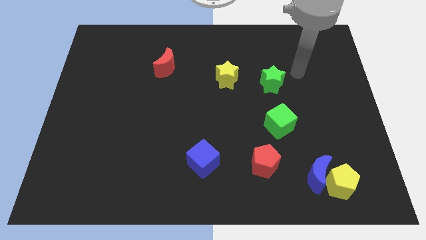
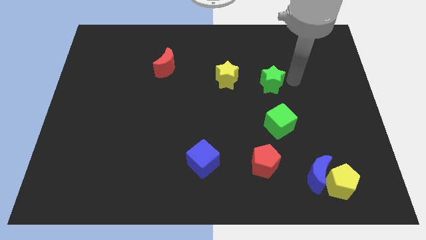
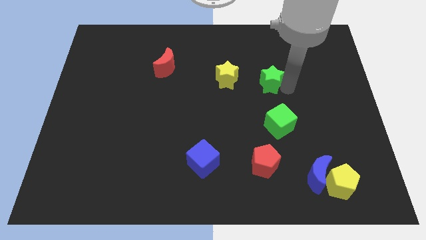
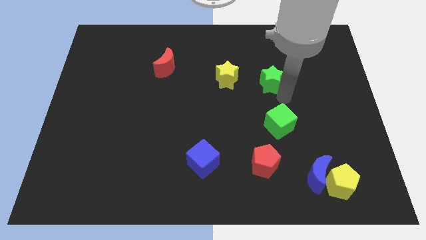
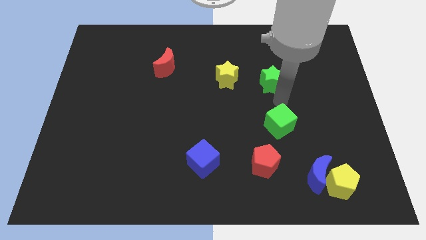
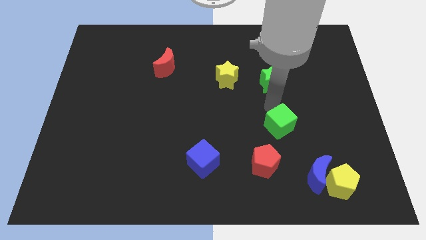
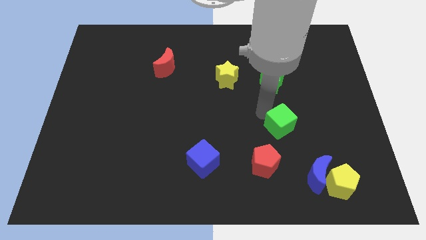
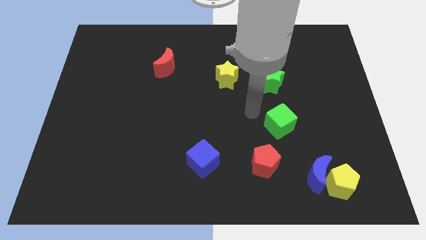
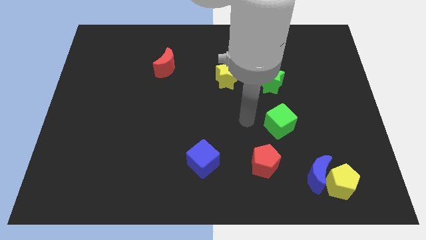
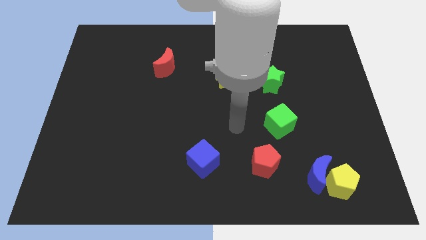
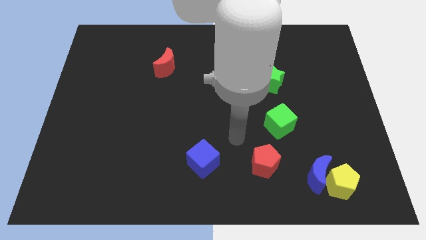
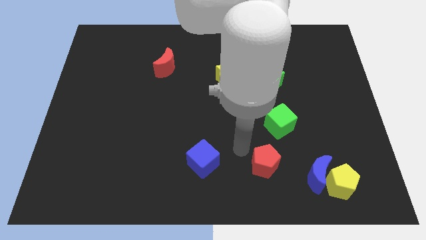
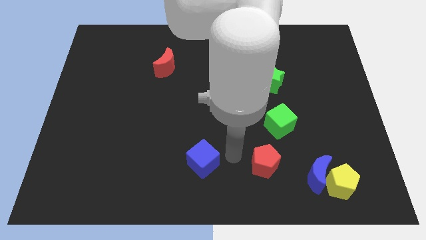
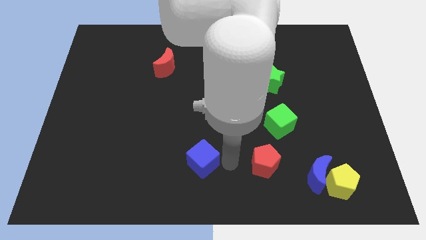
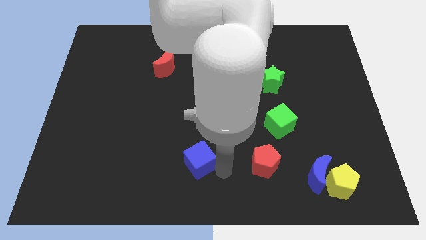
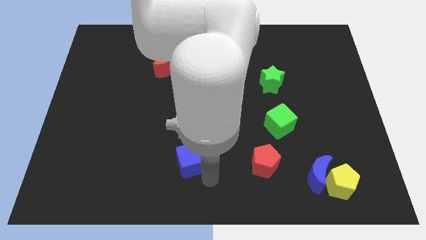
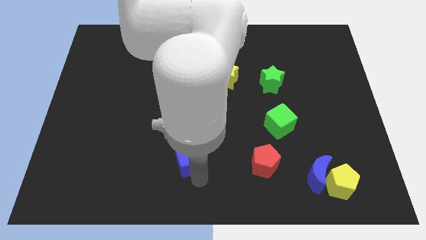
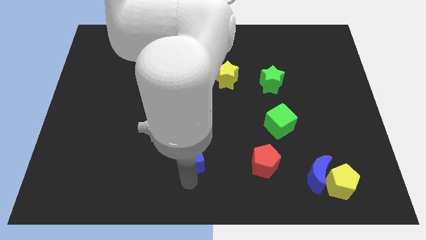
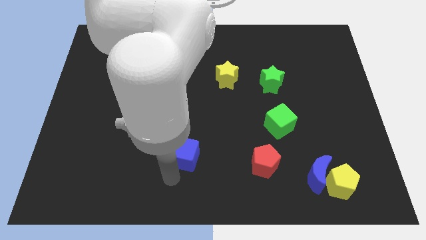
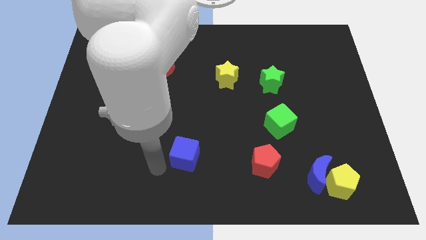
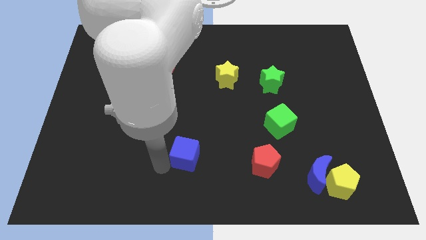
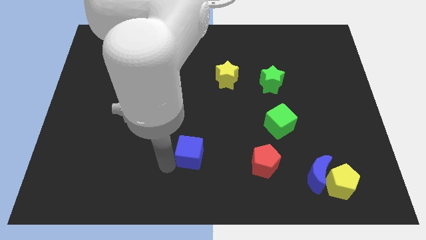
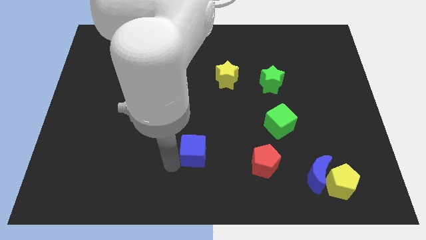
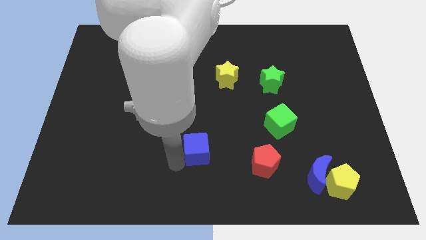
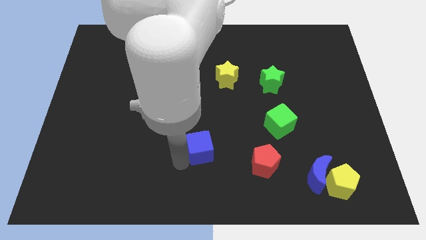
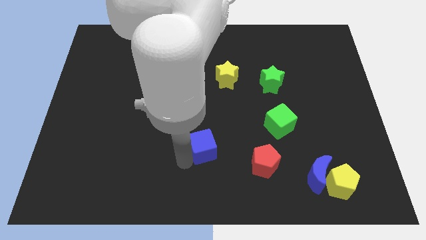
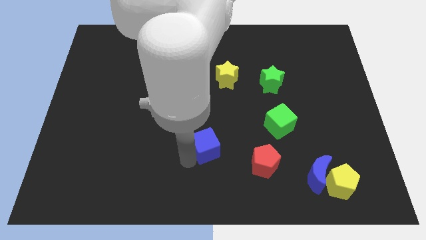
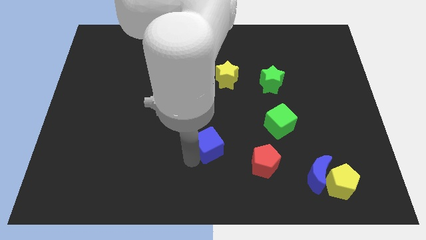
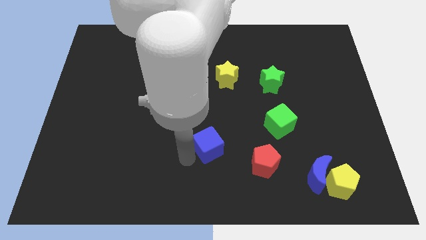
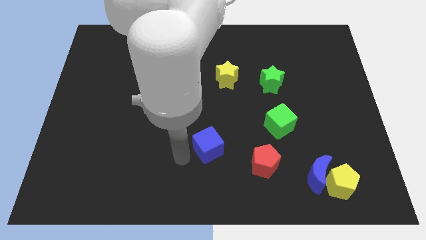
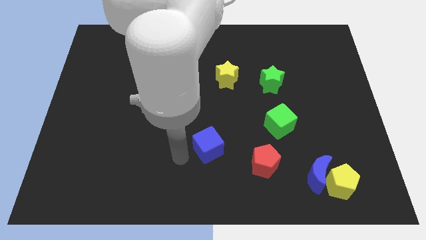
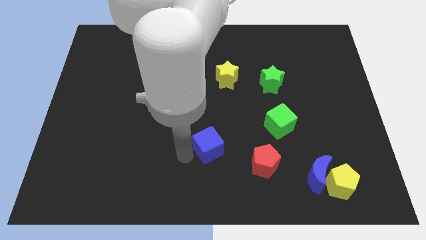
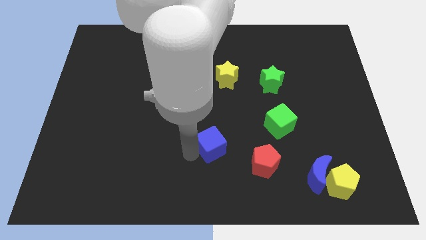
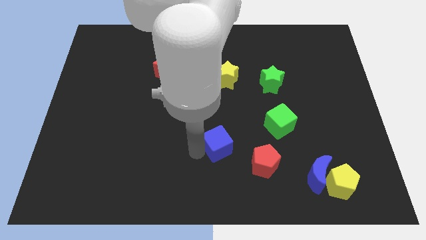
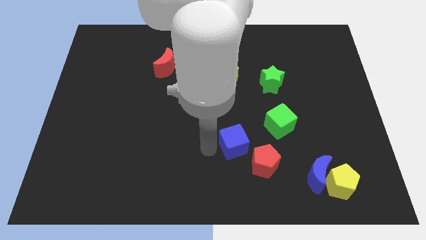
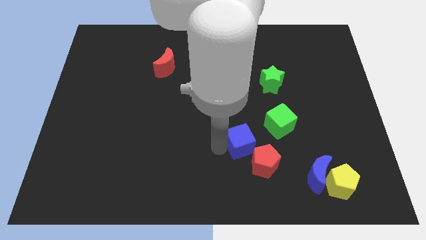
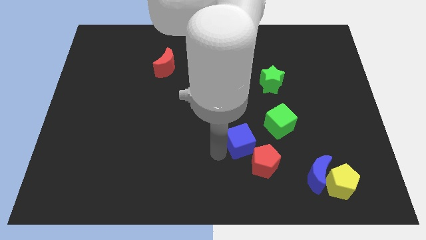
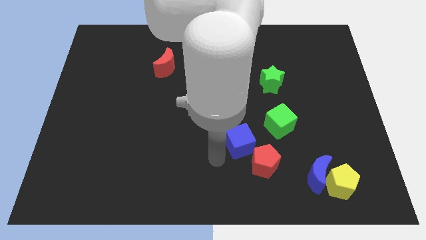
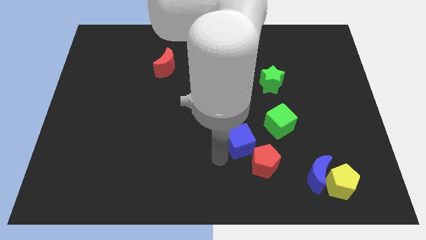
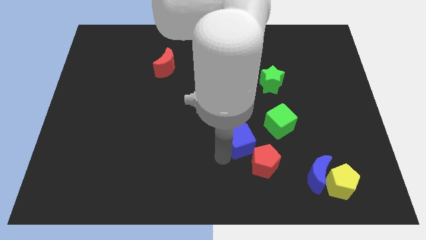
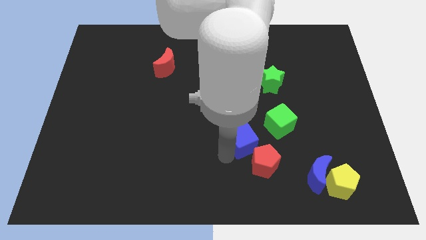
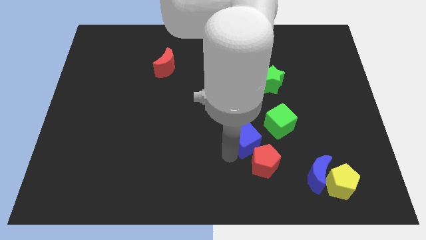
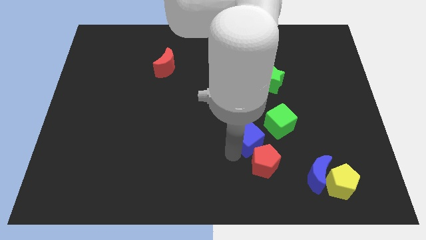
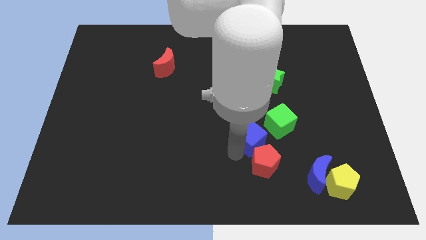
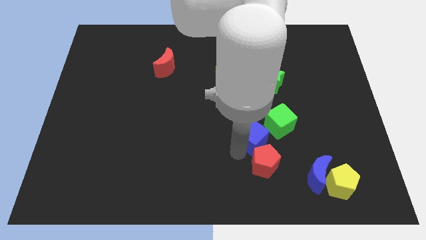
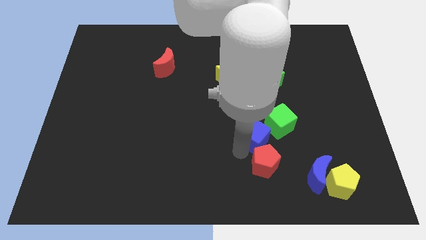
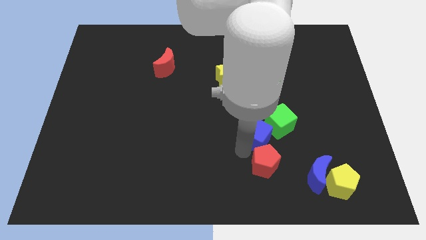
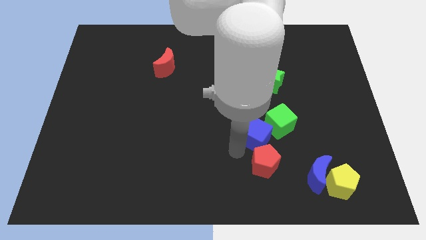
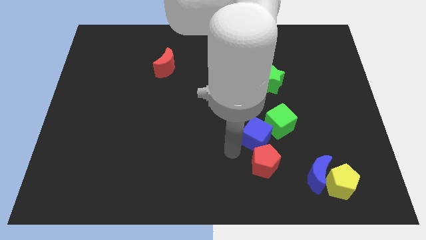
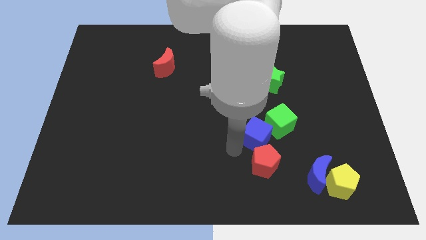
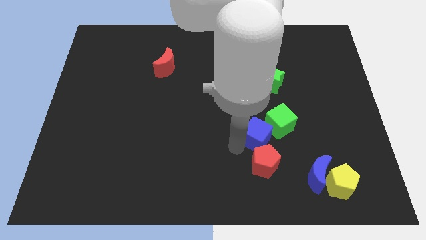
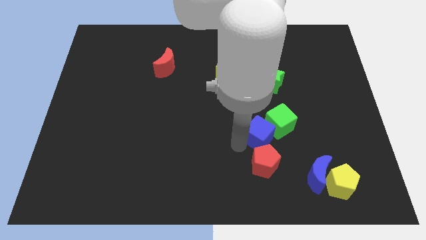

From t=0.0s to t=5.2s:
slide the blue cube to the green cube
